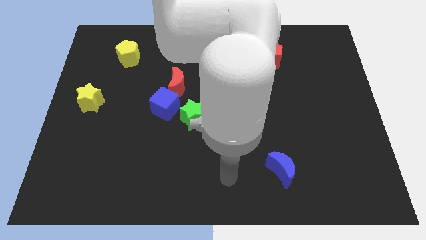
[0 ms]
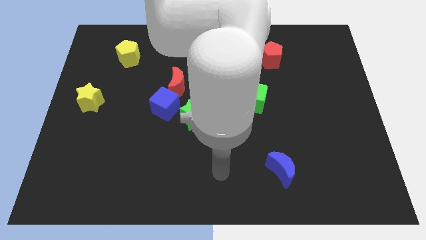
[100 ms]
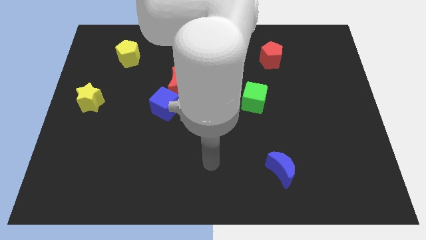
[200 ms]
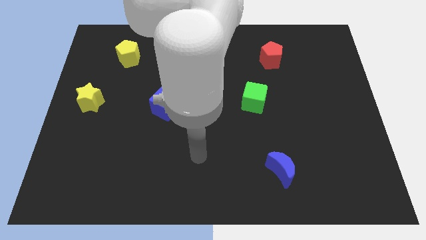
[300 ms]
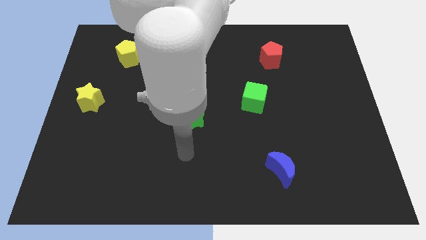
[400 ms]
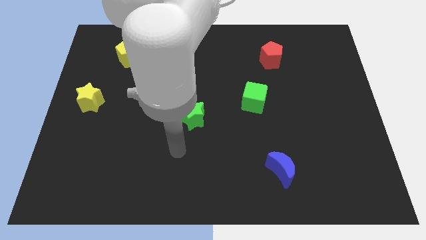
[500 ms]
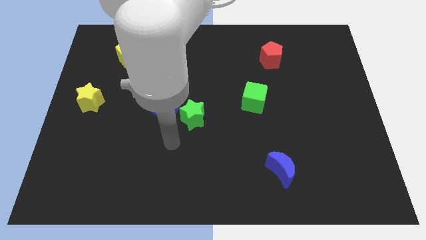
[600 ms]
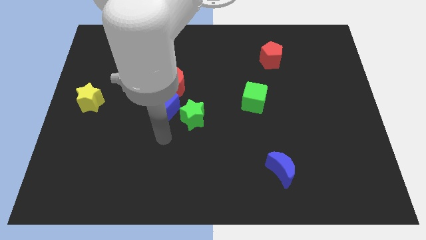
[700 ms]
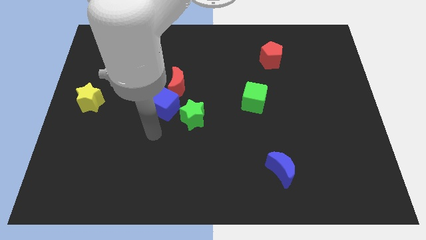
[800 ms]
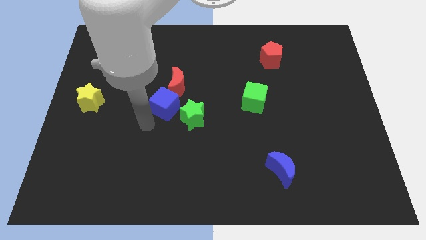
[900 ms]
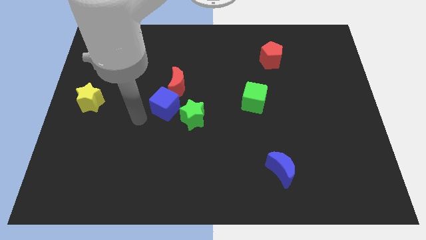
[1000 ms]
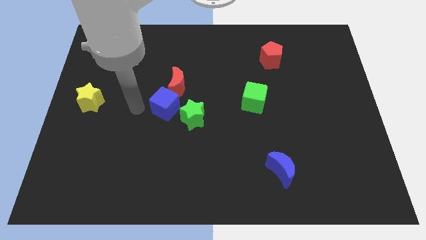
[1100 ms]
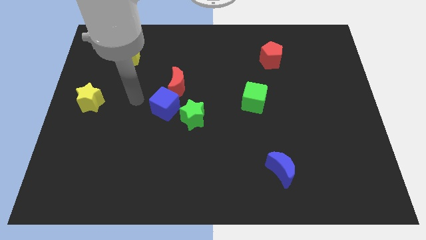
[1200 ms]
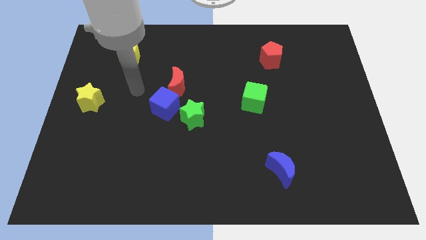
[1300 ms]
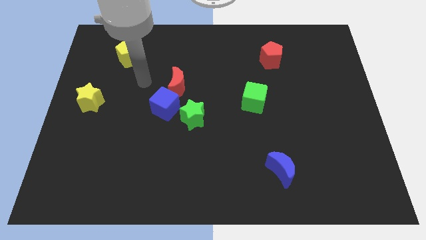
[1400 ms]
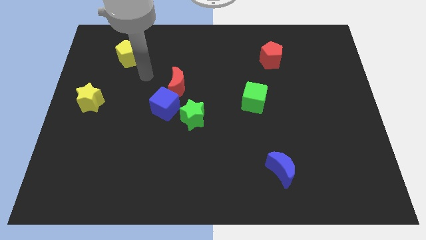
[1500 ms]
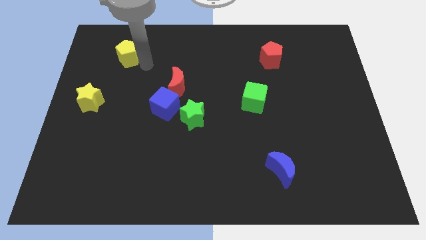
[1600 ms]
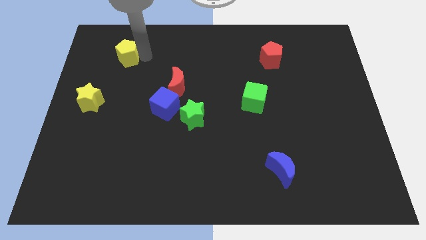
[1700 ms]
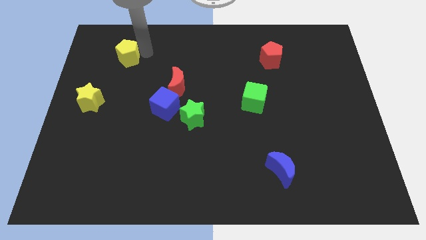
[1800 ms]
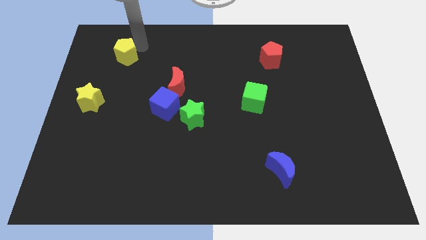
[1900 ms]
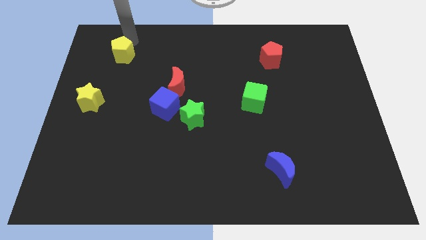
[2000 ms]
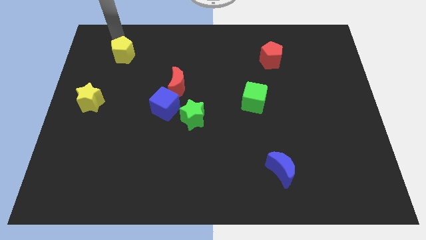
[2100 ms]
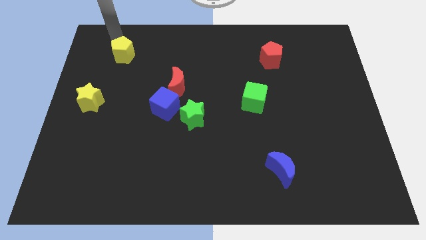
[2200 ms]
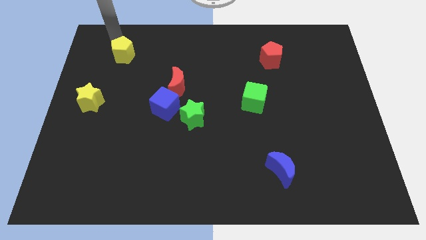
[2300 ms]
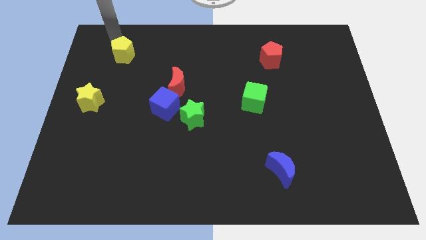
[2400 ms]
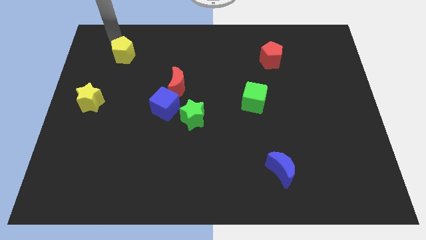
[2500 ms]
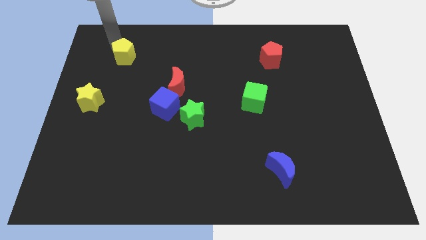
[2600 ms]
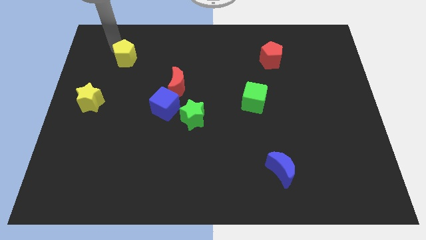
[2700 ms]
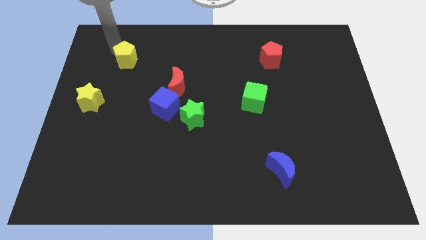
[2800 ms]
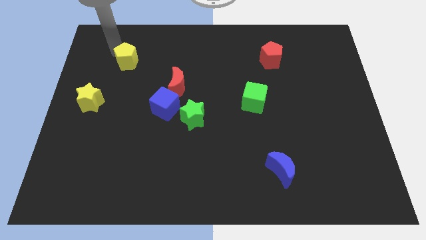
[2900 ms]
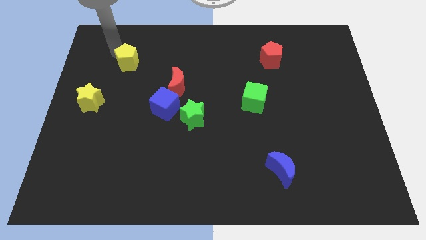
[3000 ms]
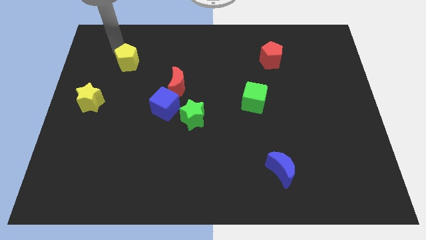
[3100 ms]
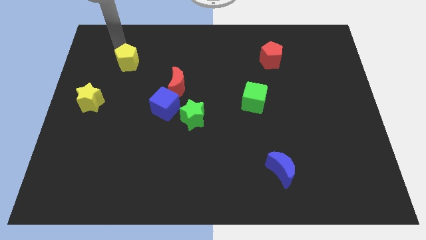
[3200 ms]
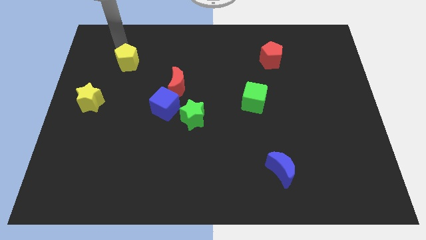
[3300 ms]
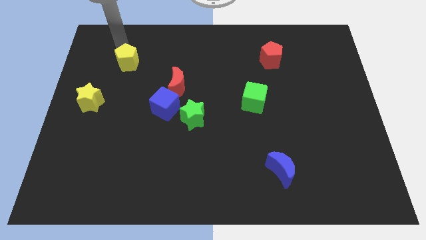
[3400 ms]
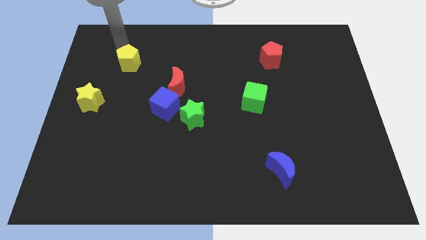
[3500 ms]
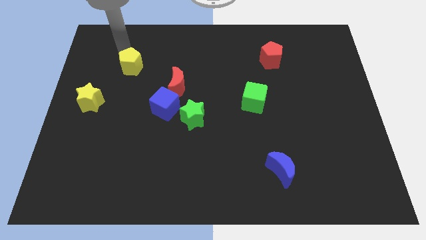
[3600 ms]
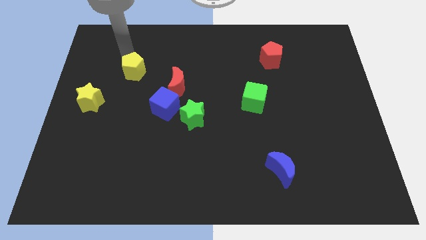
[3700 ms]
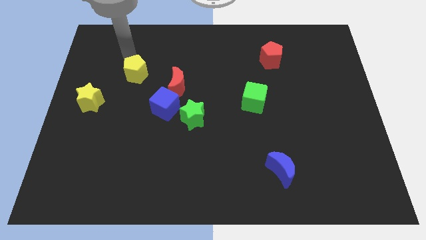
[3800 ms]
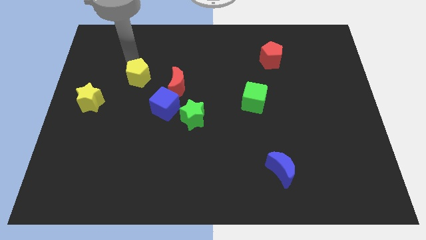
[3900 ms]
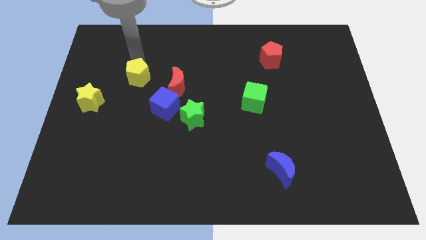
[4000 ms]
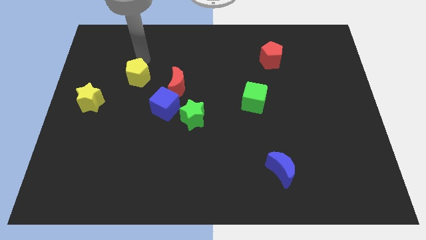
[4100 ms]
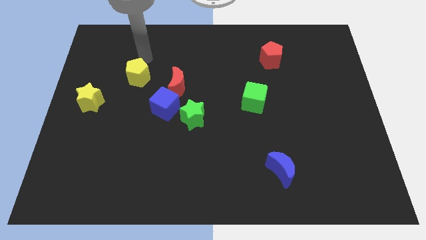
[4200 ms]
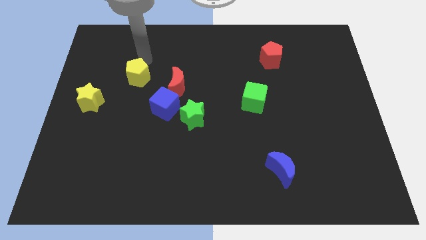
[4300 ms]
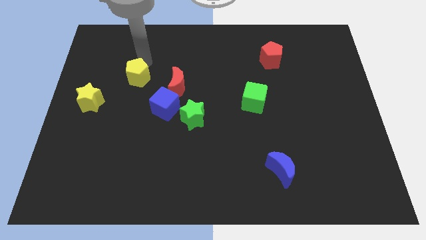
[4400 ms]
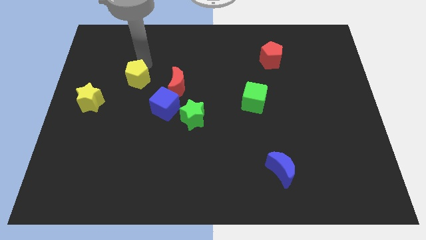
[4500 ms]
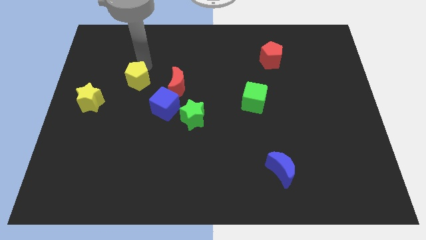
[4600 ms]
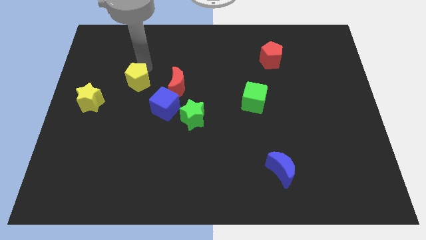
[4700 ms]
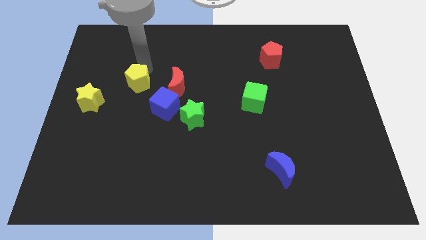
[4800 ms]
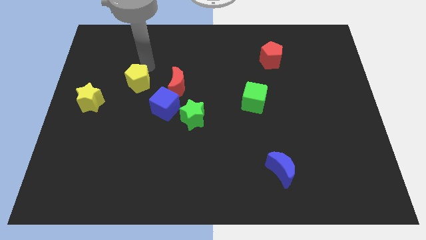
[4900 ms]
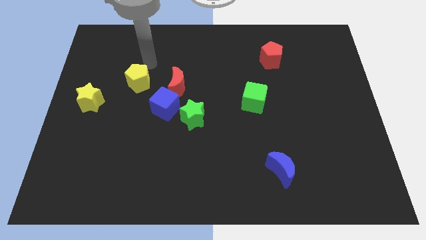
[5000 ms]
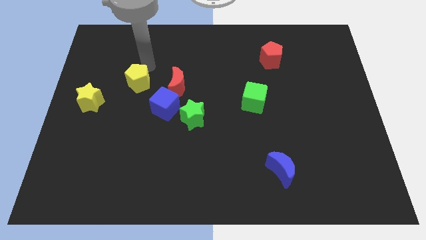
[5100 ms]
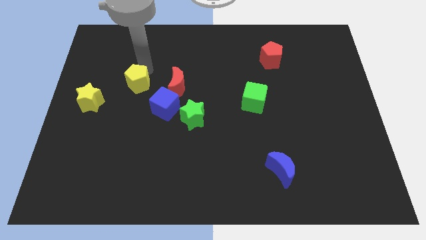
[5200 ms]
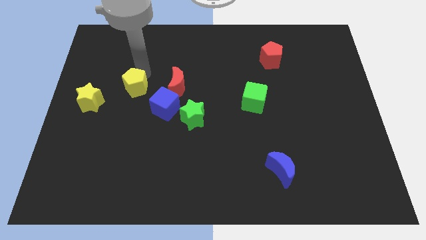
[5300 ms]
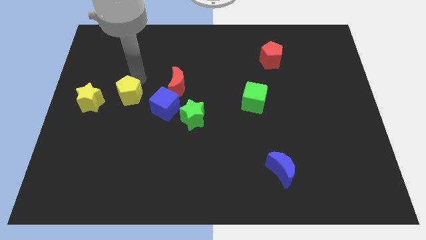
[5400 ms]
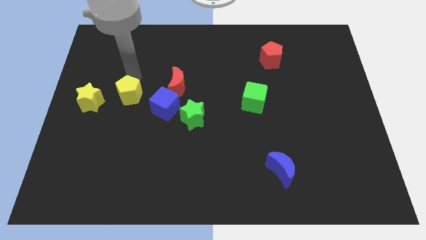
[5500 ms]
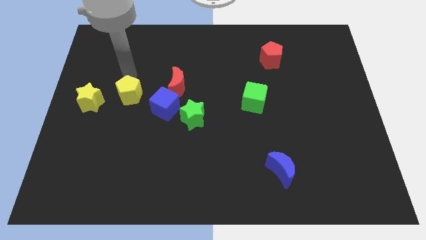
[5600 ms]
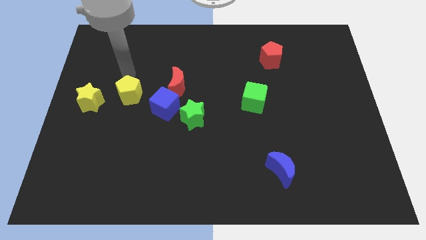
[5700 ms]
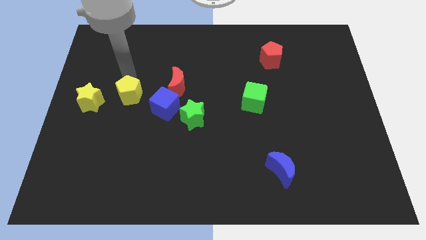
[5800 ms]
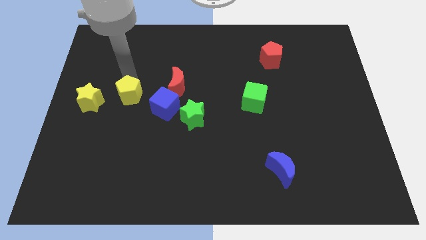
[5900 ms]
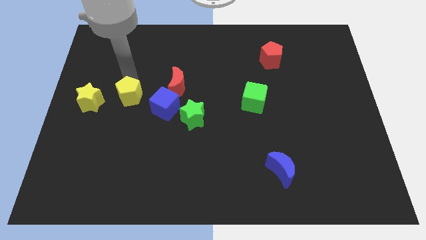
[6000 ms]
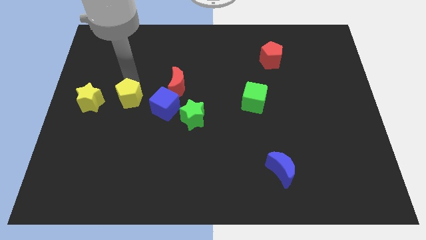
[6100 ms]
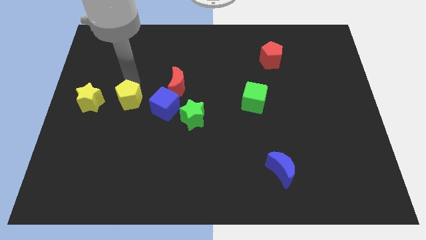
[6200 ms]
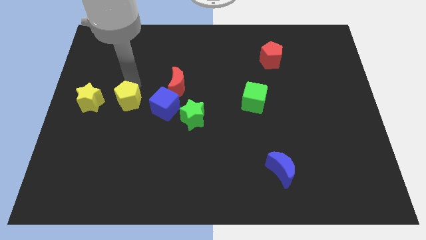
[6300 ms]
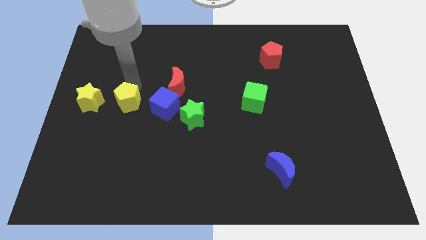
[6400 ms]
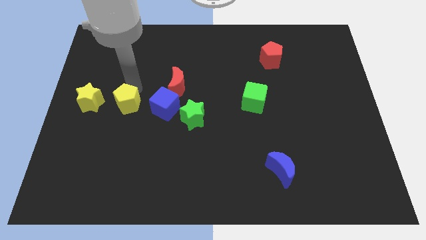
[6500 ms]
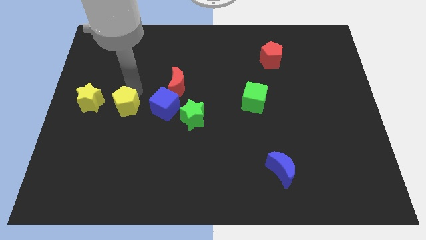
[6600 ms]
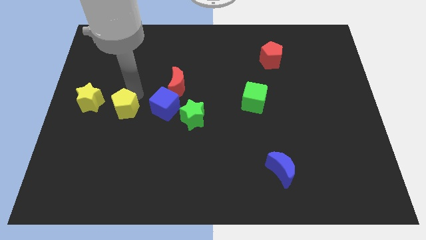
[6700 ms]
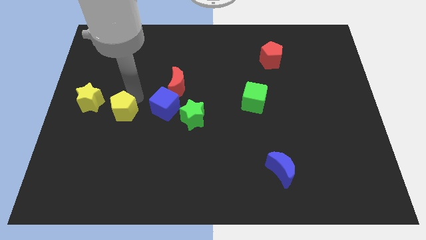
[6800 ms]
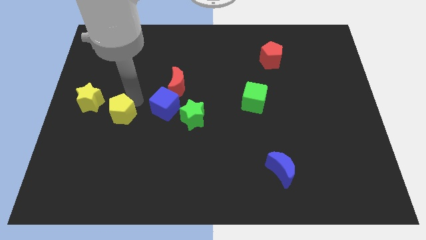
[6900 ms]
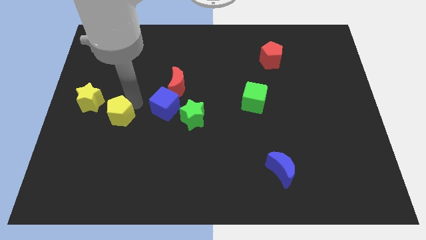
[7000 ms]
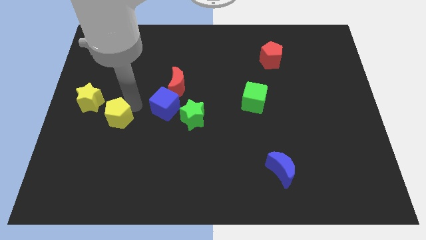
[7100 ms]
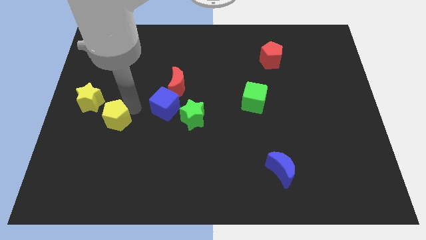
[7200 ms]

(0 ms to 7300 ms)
move the yellow pentagon down

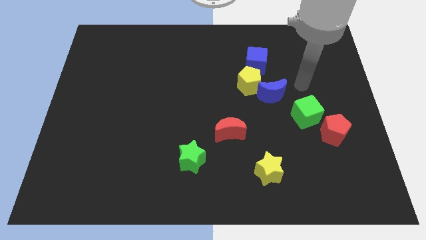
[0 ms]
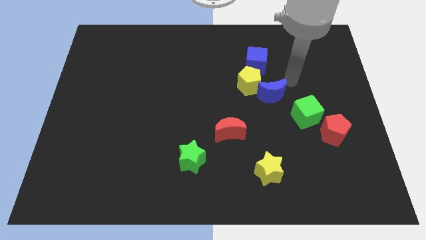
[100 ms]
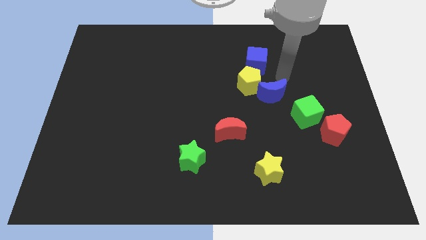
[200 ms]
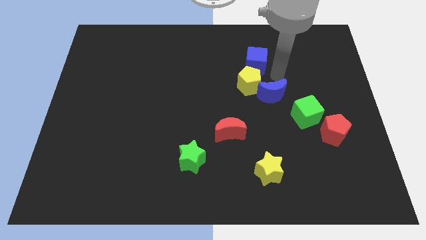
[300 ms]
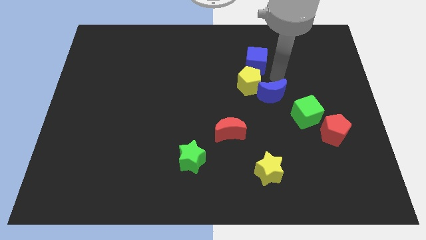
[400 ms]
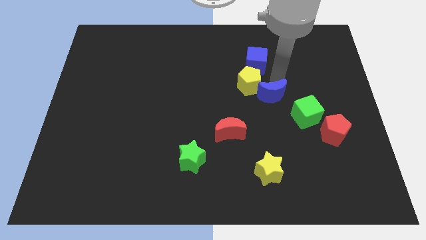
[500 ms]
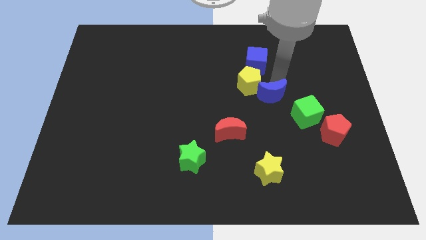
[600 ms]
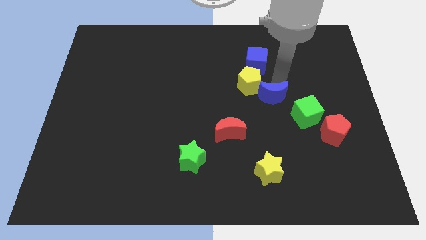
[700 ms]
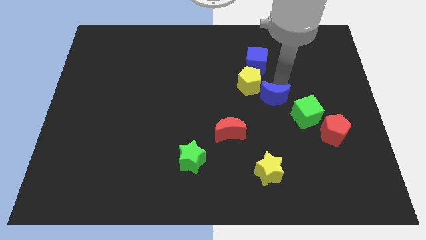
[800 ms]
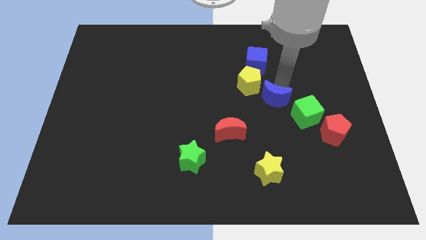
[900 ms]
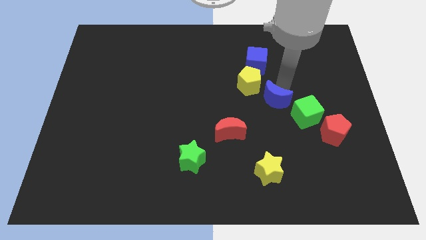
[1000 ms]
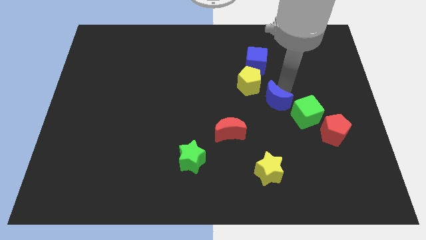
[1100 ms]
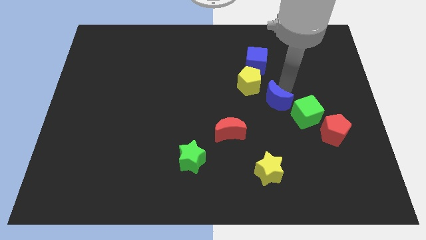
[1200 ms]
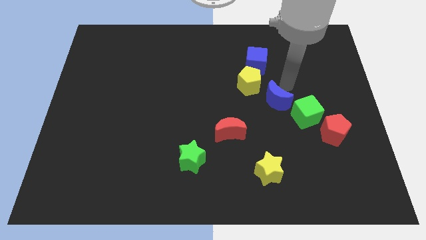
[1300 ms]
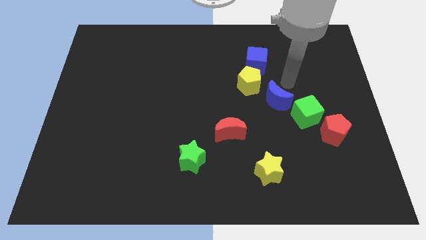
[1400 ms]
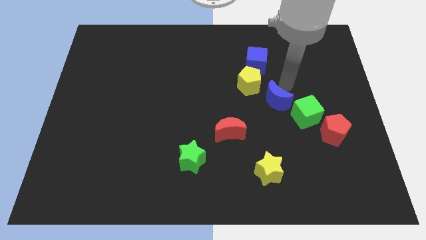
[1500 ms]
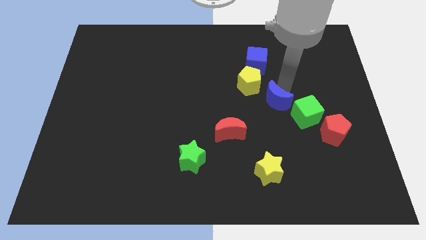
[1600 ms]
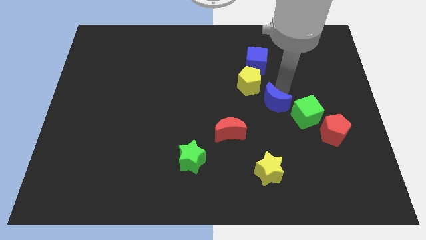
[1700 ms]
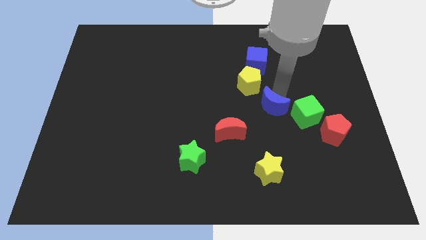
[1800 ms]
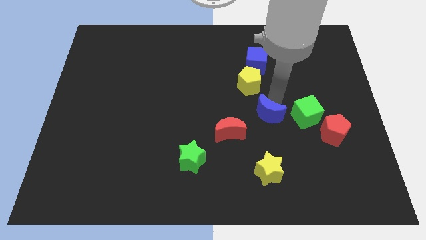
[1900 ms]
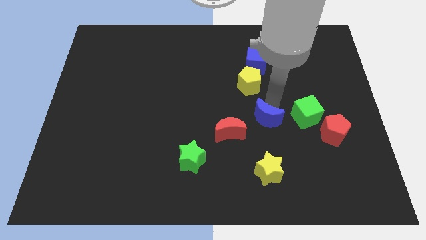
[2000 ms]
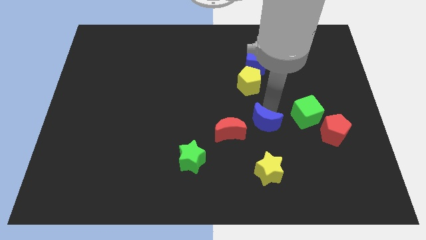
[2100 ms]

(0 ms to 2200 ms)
slightly move the blue moon diagonally downwards and left
